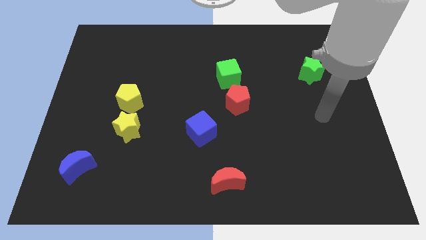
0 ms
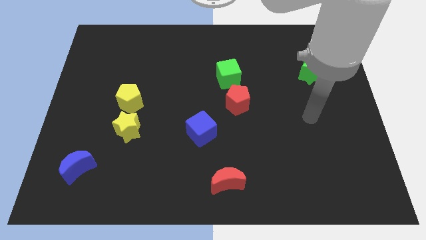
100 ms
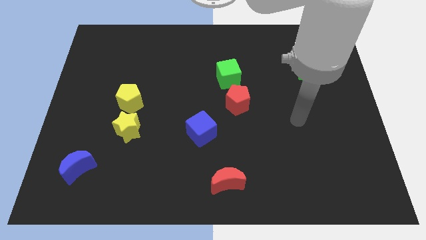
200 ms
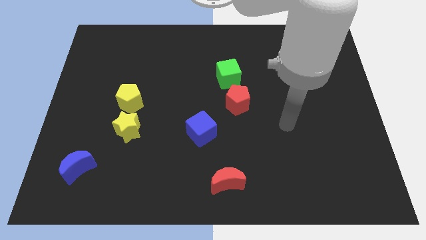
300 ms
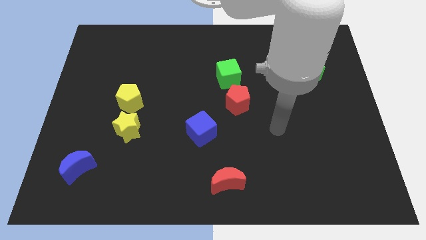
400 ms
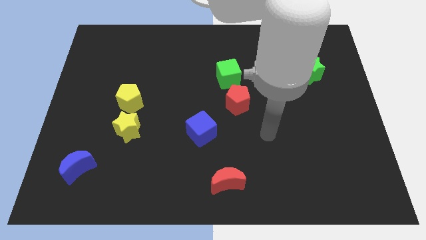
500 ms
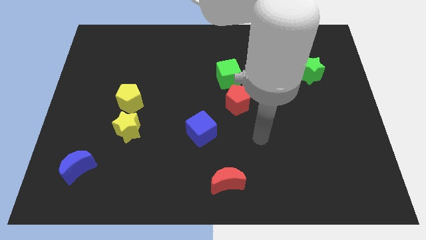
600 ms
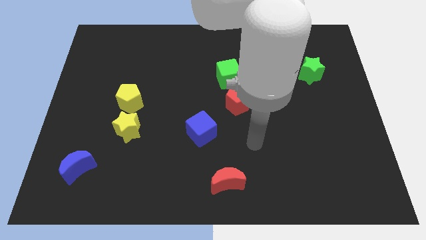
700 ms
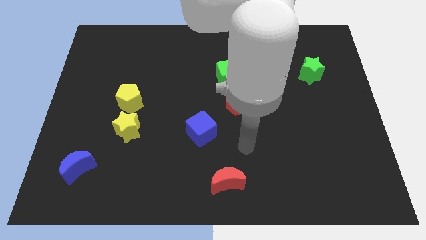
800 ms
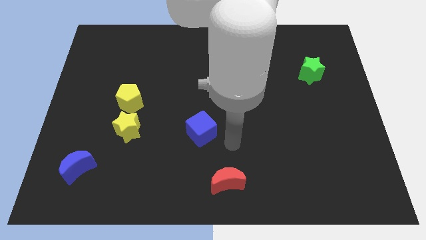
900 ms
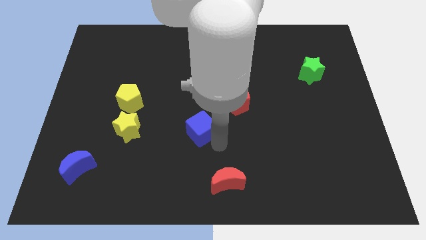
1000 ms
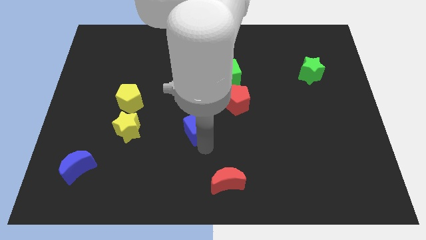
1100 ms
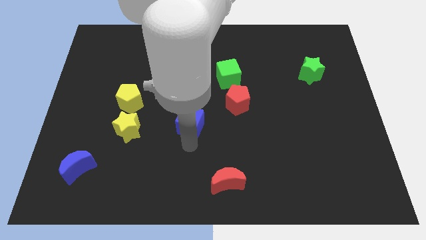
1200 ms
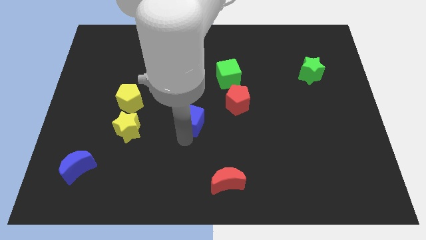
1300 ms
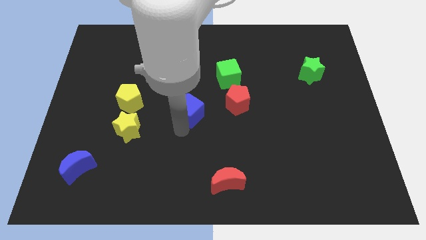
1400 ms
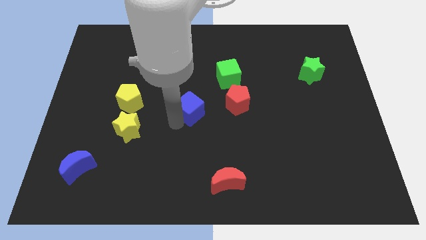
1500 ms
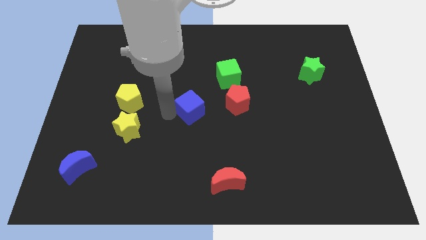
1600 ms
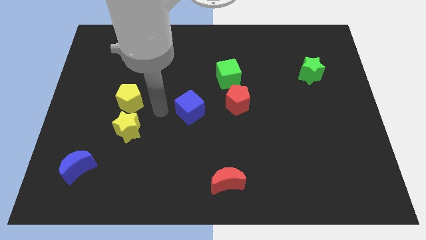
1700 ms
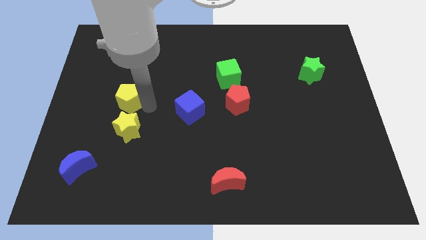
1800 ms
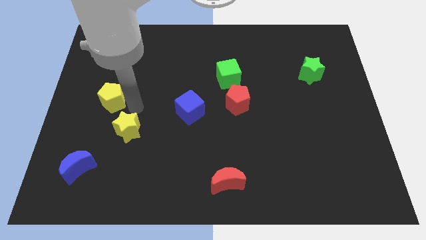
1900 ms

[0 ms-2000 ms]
move the yellow star away from the yellow pentagon

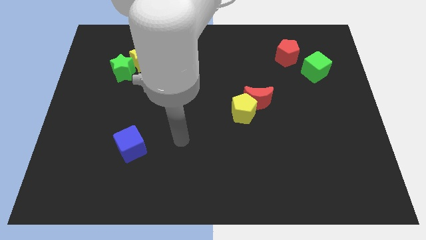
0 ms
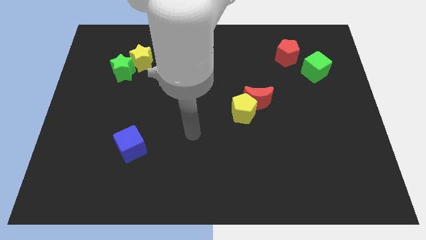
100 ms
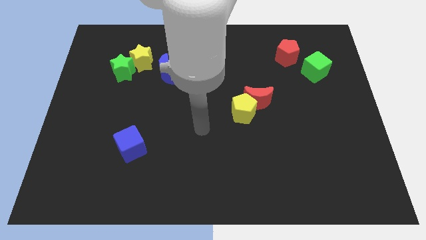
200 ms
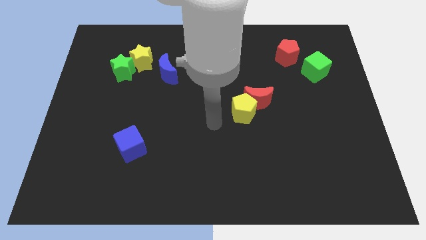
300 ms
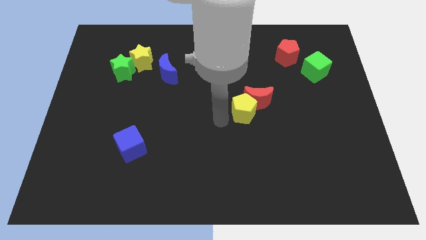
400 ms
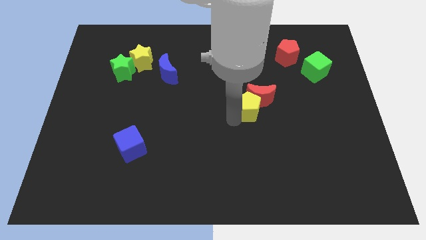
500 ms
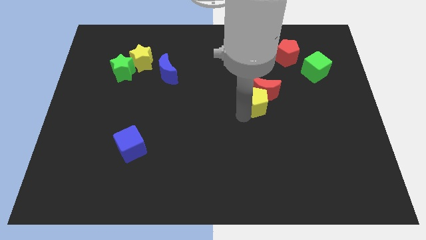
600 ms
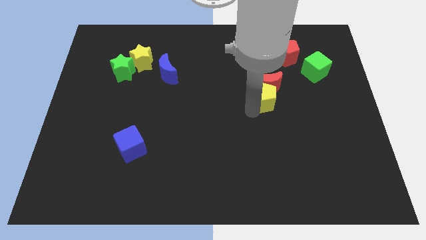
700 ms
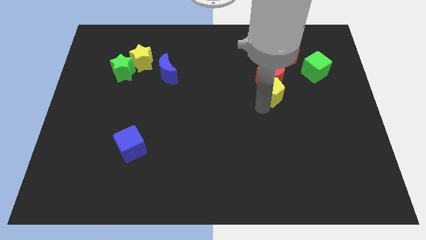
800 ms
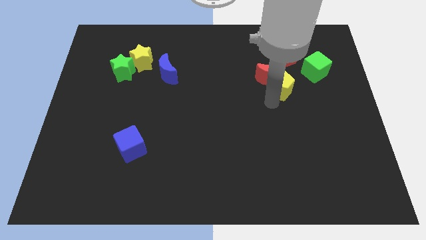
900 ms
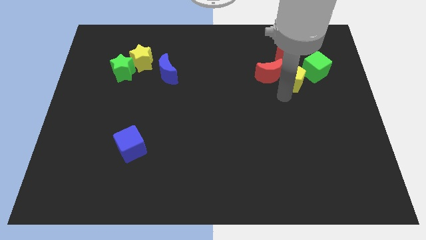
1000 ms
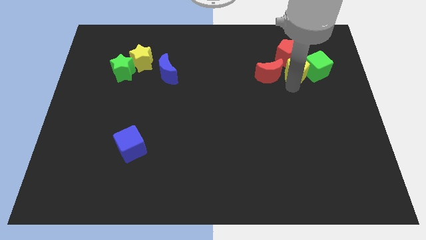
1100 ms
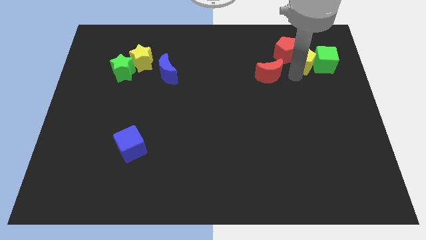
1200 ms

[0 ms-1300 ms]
move the red moon away from the yellow pentagon

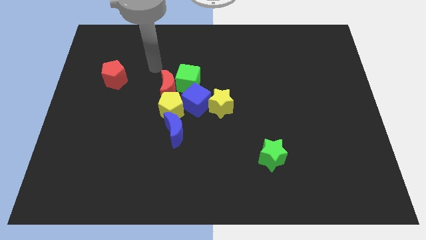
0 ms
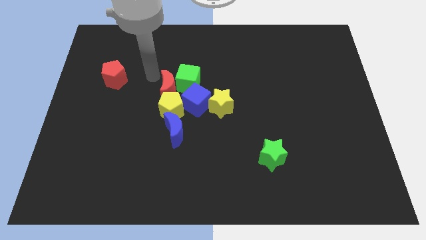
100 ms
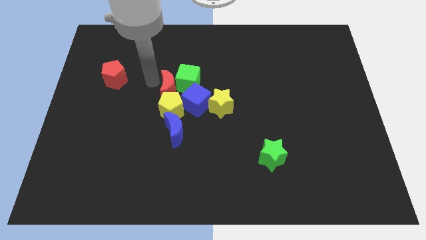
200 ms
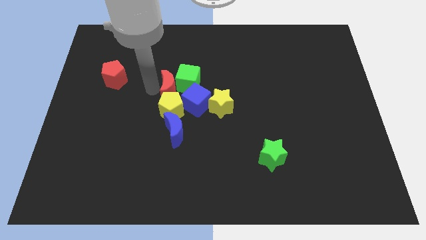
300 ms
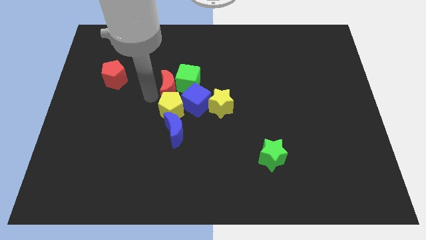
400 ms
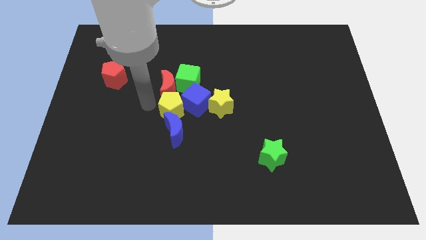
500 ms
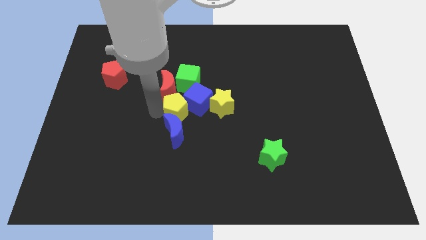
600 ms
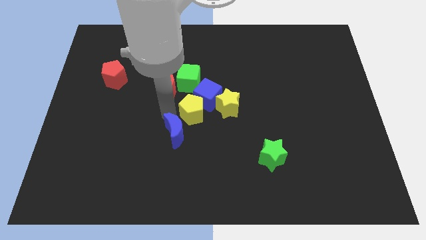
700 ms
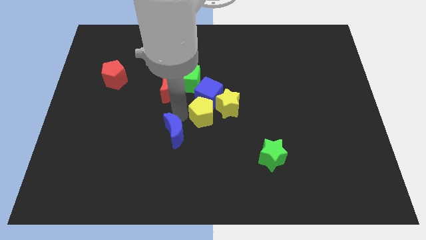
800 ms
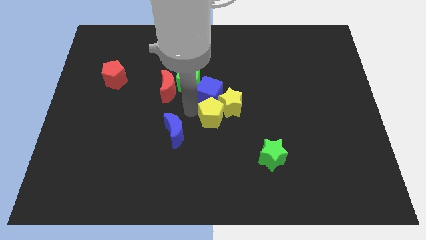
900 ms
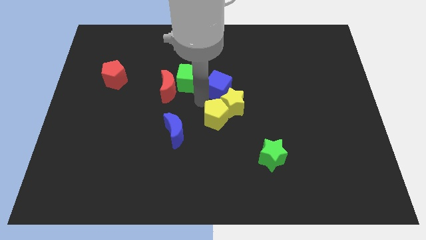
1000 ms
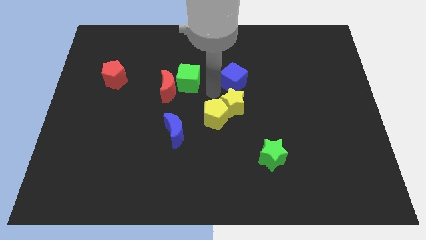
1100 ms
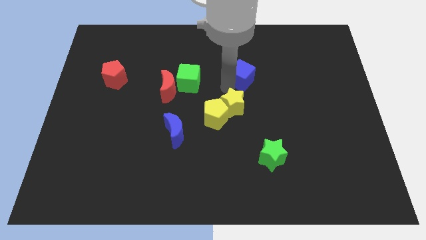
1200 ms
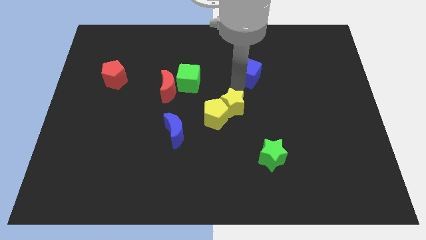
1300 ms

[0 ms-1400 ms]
pull the yellow star apart from the blue cube

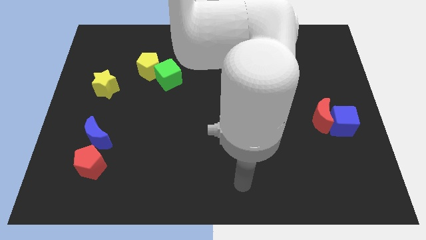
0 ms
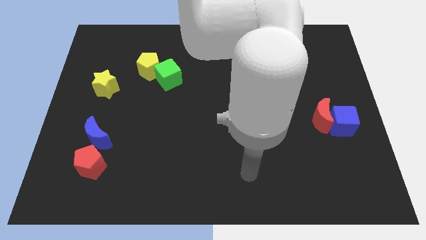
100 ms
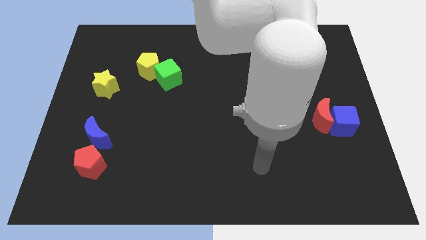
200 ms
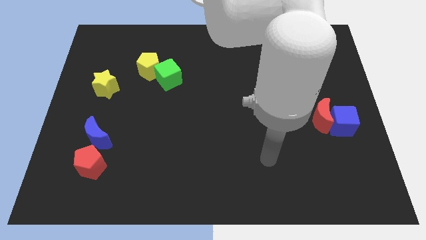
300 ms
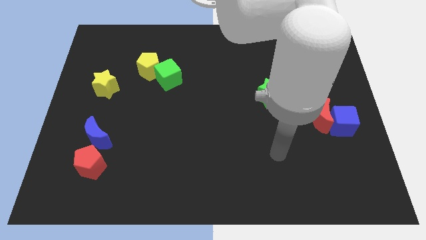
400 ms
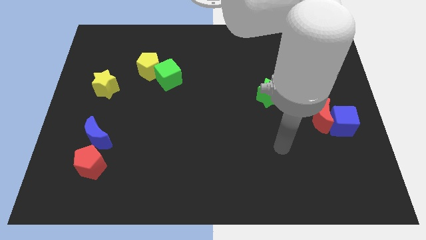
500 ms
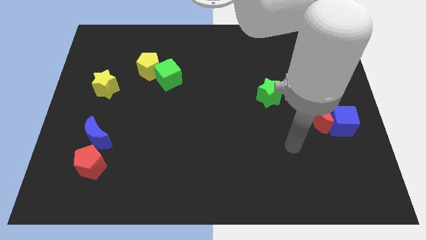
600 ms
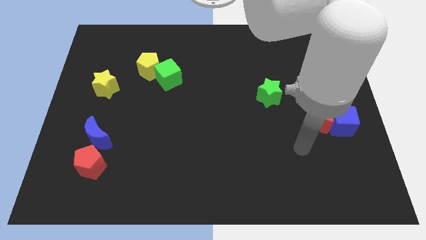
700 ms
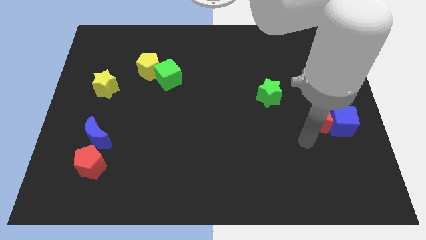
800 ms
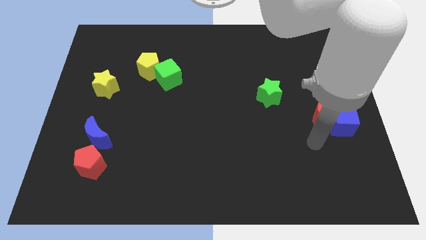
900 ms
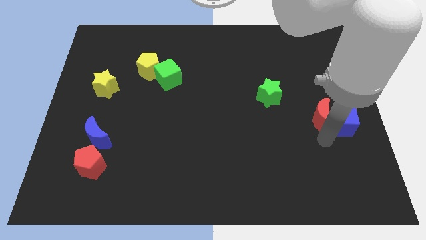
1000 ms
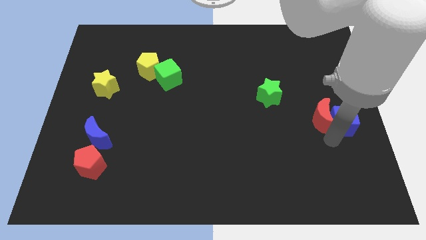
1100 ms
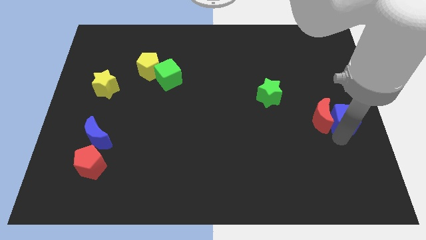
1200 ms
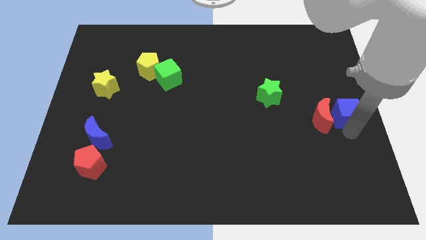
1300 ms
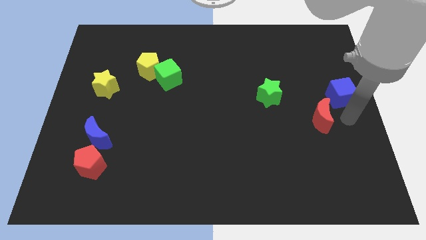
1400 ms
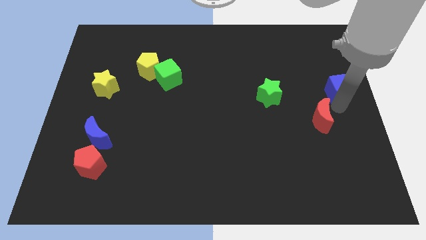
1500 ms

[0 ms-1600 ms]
pull the red moon apart from the blue cube

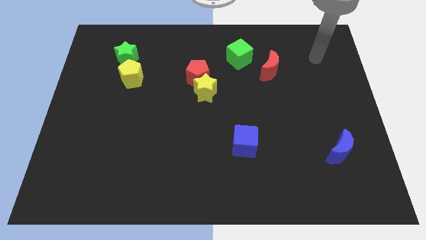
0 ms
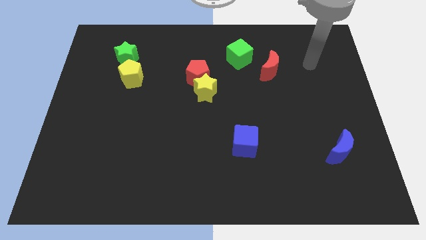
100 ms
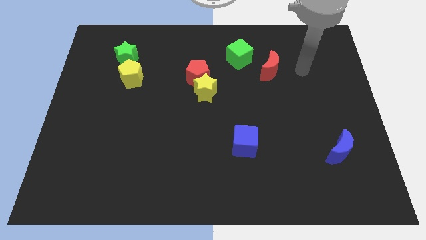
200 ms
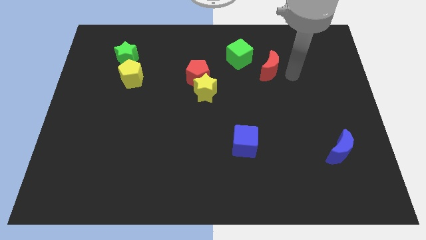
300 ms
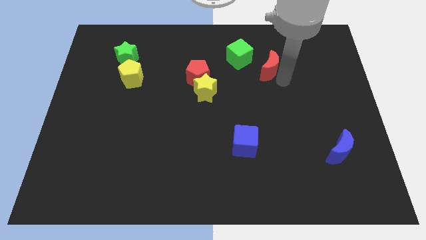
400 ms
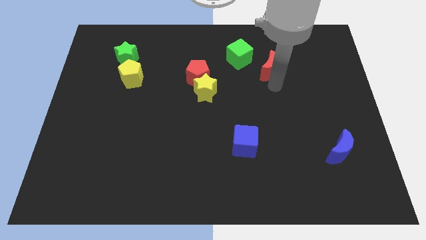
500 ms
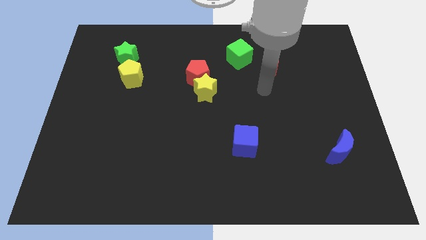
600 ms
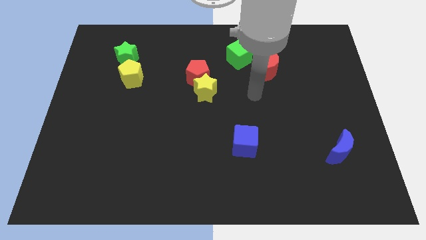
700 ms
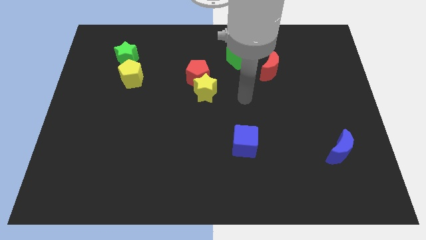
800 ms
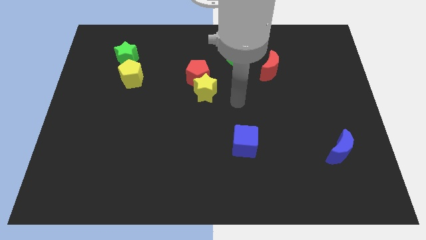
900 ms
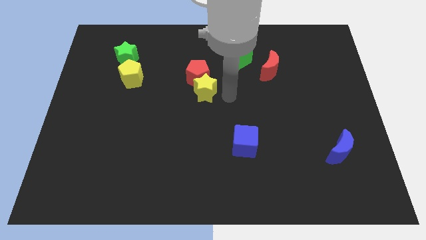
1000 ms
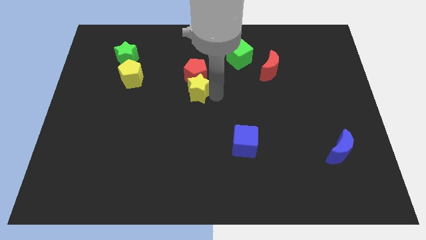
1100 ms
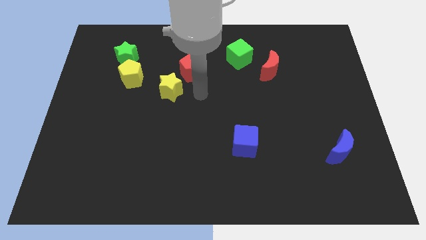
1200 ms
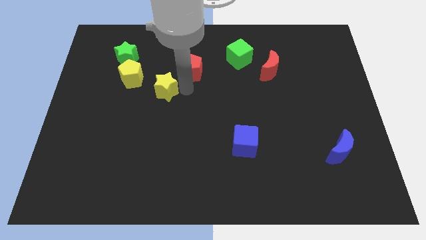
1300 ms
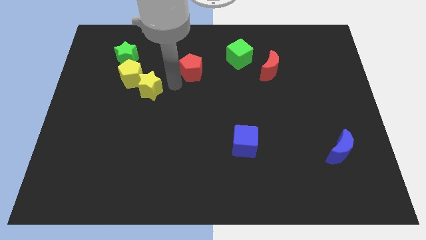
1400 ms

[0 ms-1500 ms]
move the red pentagon away from the yellow star

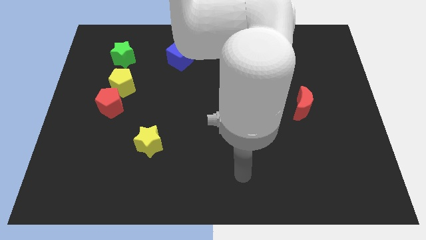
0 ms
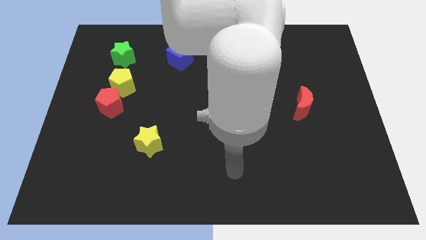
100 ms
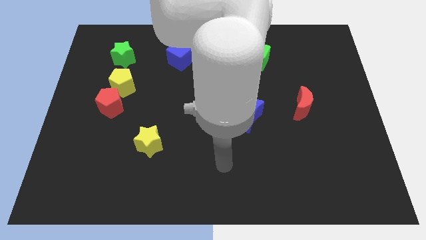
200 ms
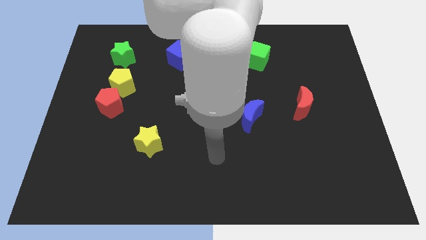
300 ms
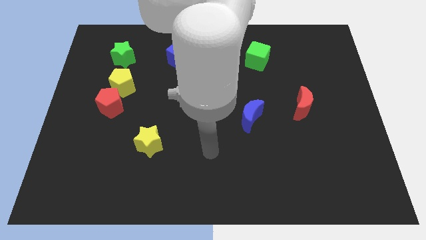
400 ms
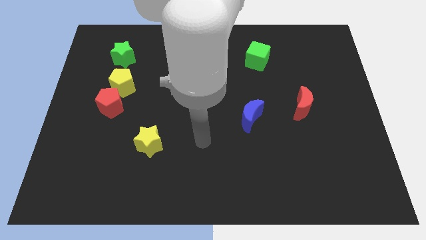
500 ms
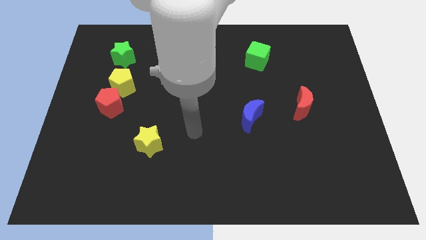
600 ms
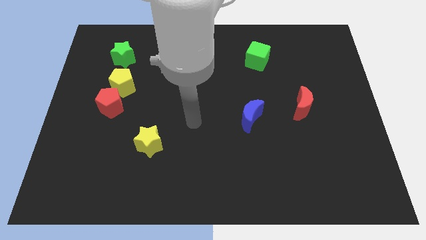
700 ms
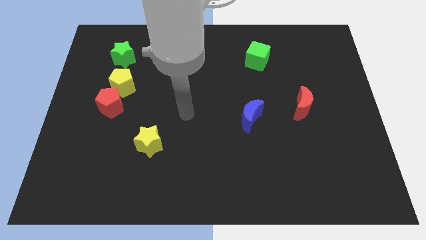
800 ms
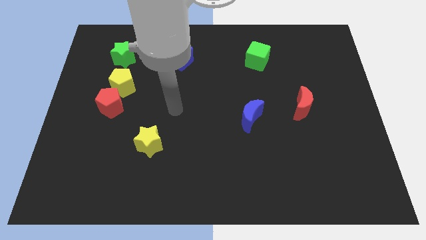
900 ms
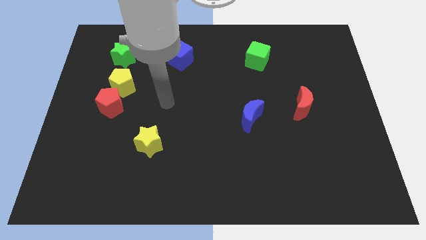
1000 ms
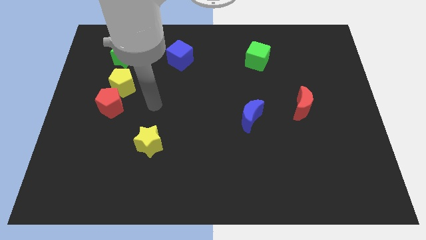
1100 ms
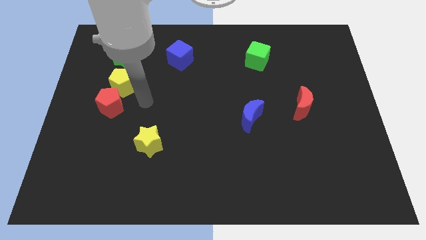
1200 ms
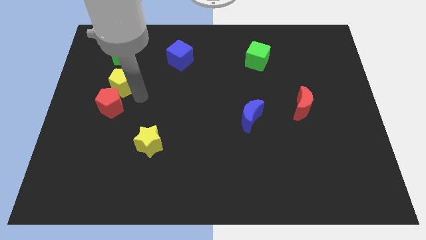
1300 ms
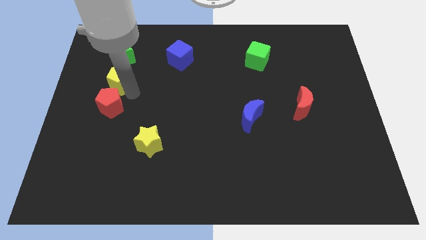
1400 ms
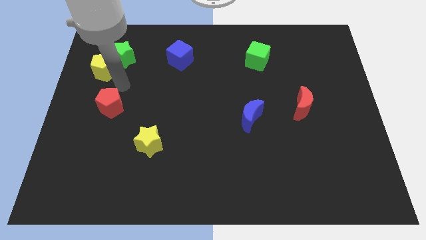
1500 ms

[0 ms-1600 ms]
separate the red pentagon from the yellow pentagon
